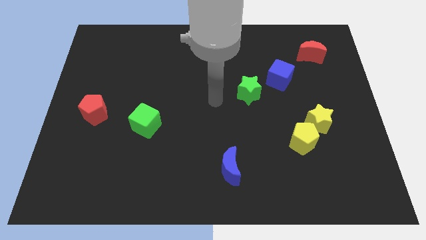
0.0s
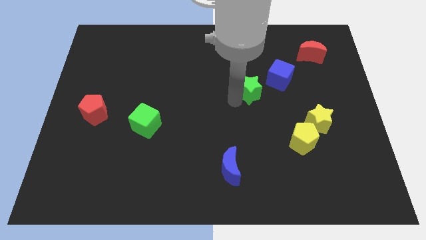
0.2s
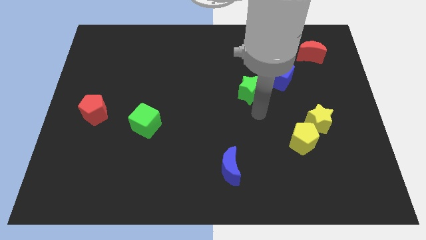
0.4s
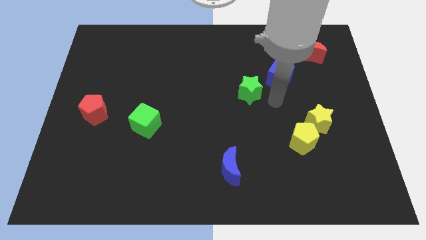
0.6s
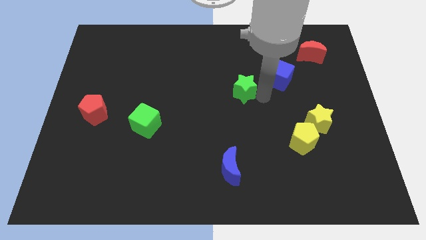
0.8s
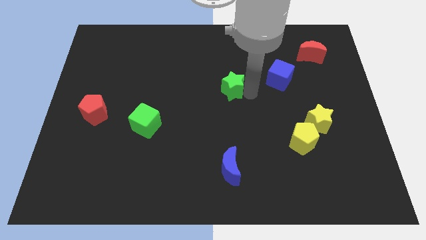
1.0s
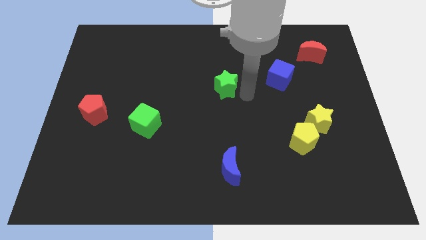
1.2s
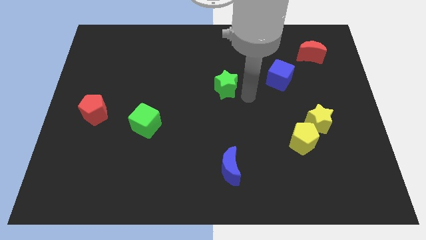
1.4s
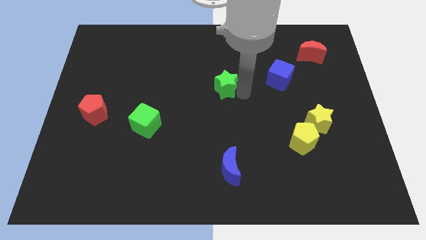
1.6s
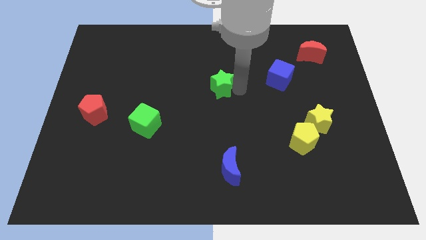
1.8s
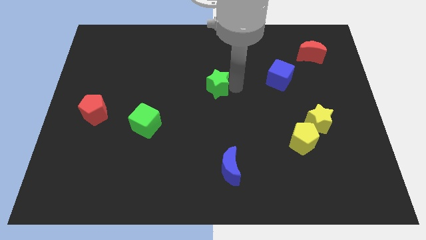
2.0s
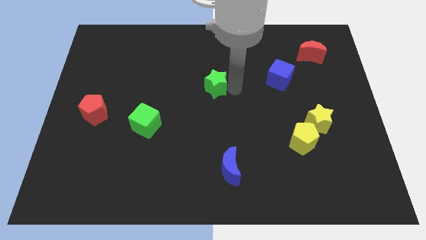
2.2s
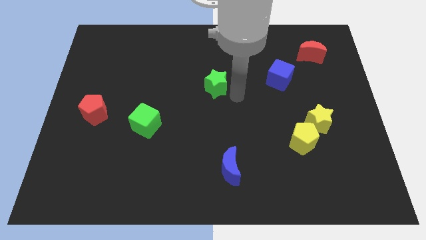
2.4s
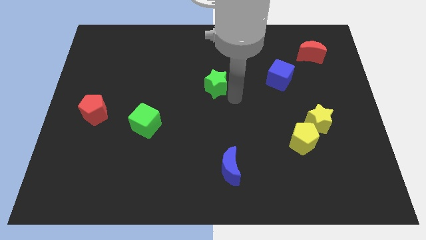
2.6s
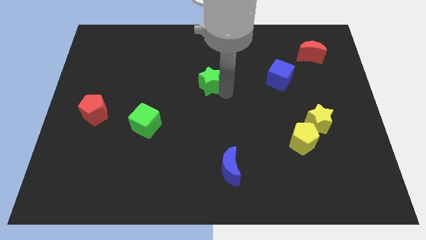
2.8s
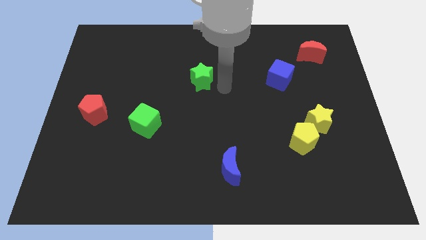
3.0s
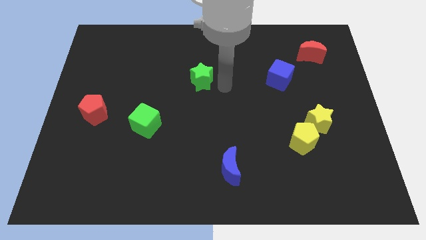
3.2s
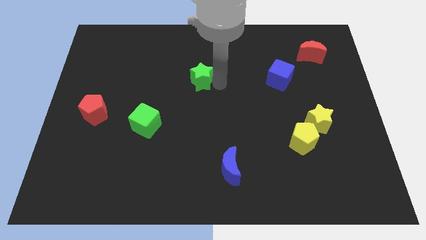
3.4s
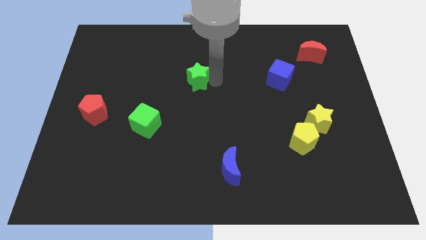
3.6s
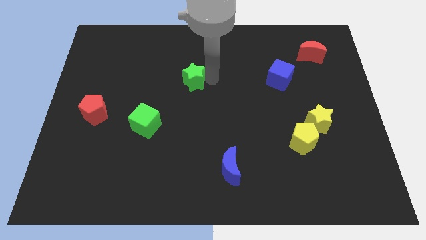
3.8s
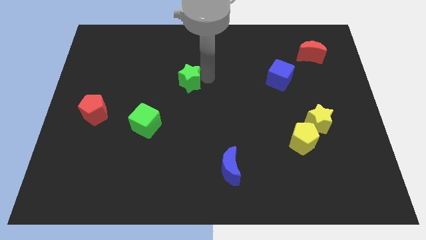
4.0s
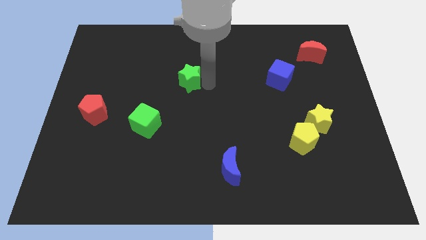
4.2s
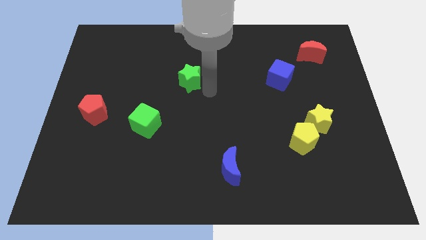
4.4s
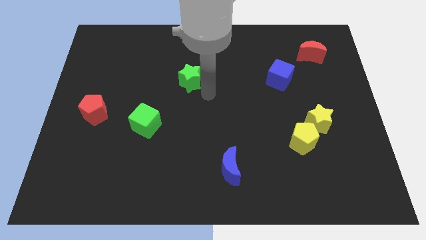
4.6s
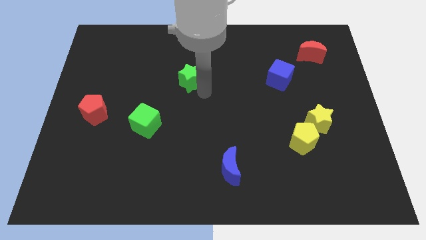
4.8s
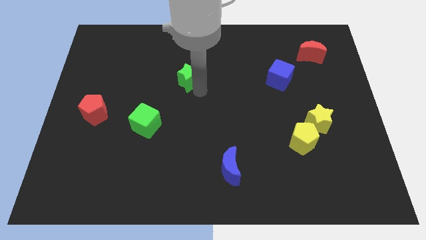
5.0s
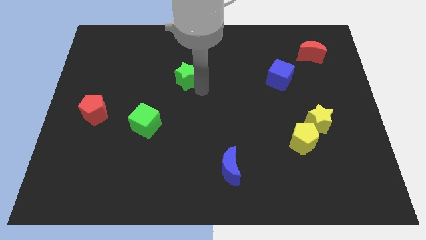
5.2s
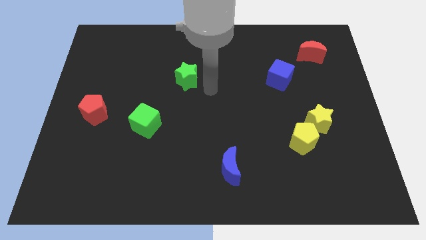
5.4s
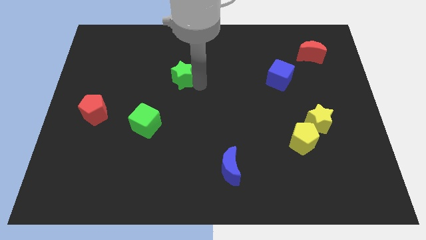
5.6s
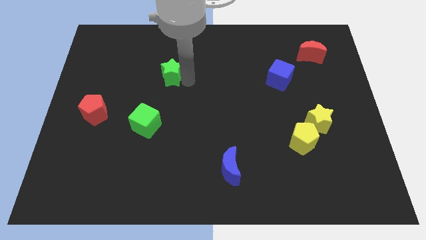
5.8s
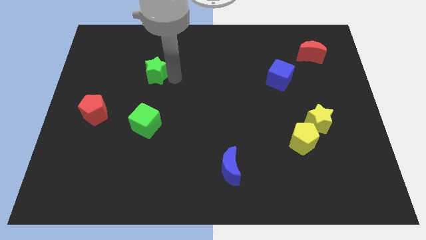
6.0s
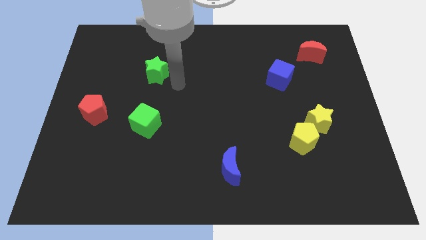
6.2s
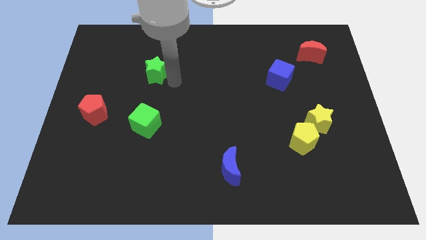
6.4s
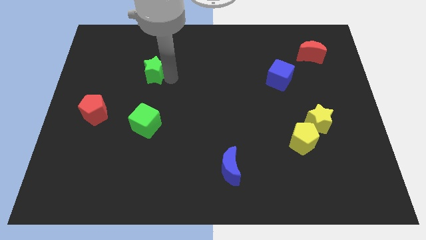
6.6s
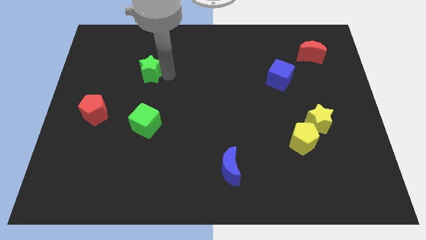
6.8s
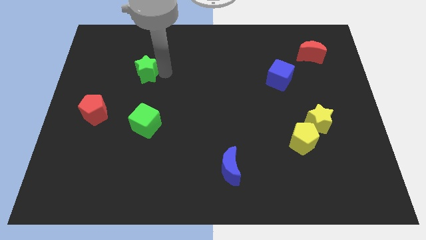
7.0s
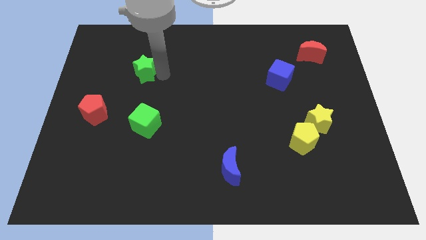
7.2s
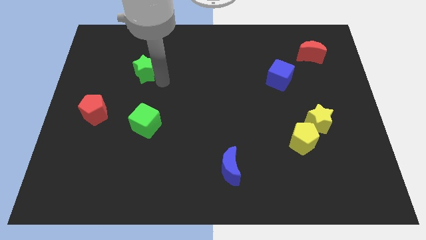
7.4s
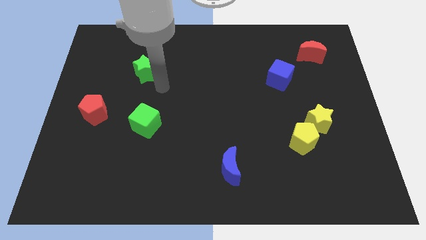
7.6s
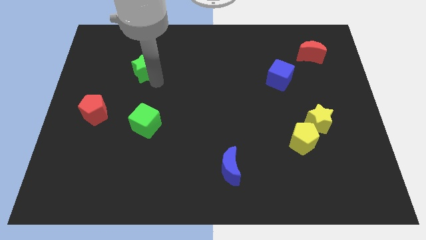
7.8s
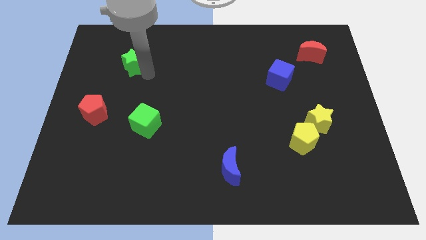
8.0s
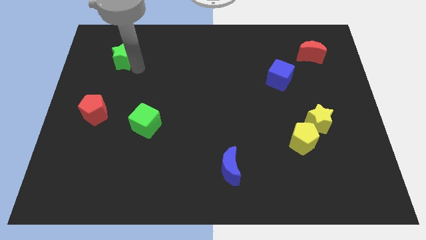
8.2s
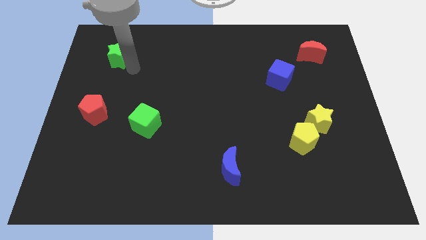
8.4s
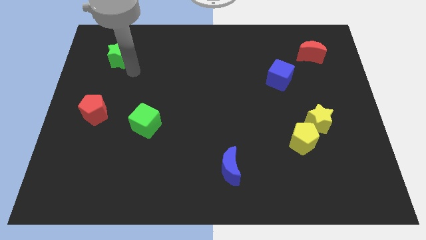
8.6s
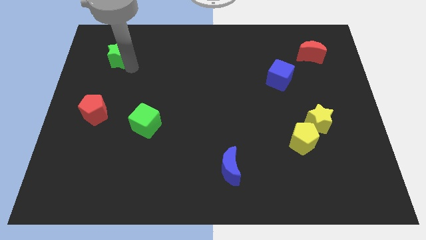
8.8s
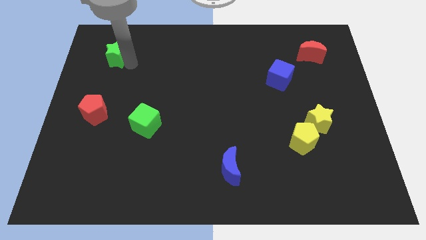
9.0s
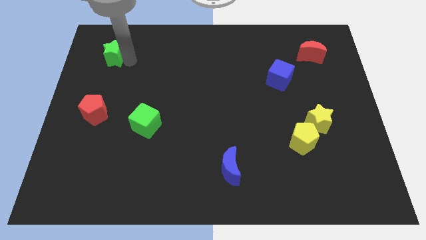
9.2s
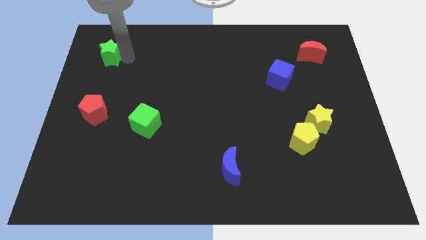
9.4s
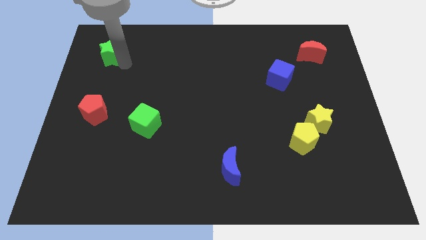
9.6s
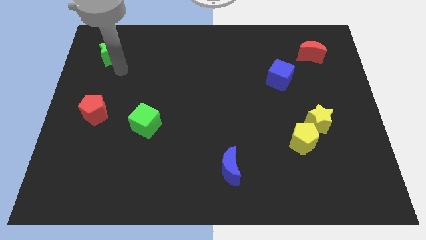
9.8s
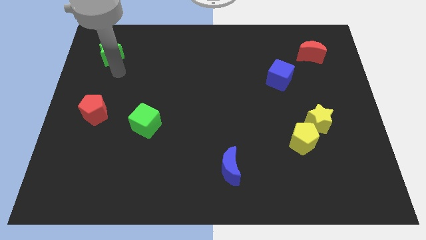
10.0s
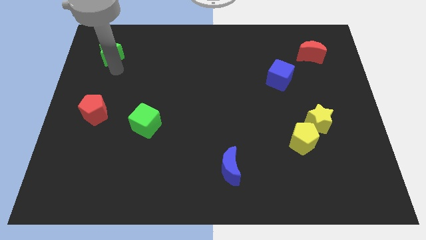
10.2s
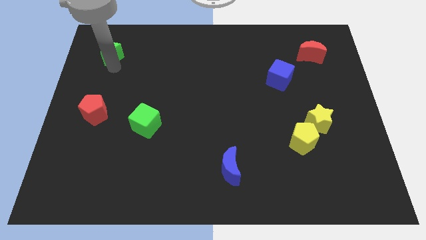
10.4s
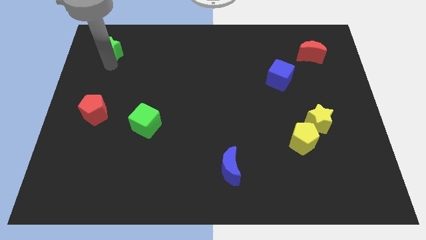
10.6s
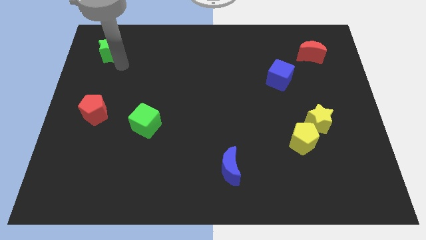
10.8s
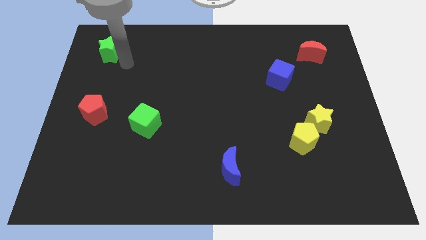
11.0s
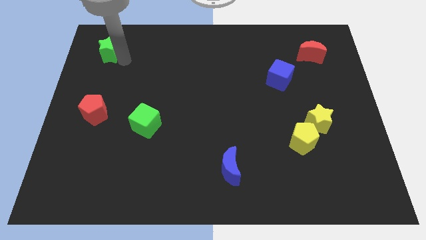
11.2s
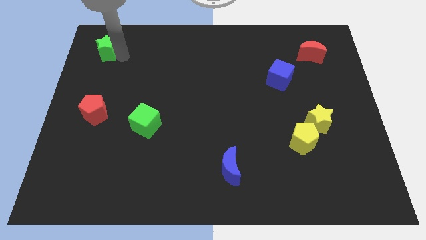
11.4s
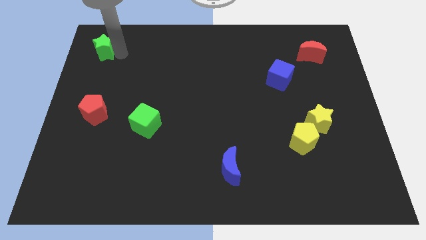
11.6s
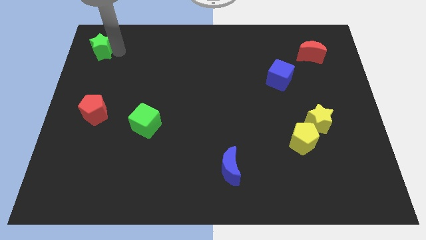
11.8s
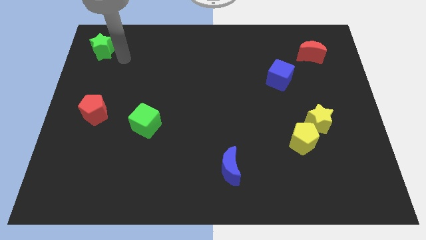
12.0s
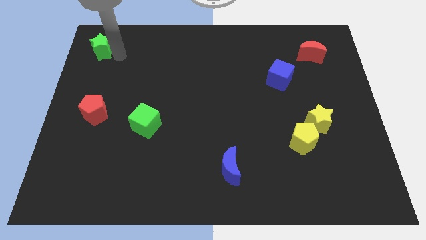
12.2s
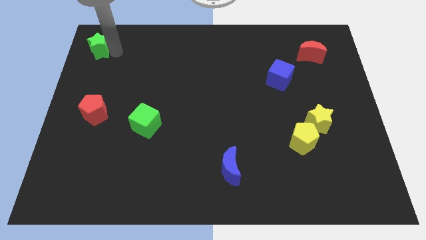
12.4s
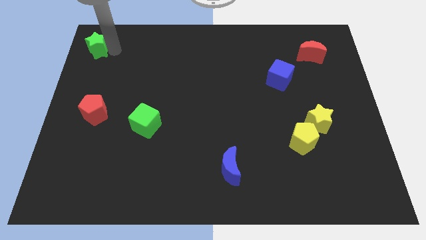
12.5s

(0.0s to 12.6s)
put the green star to the upper left corner

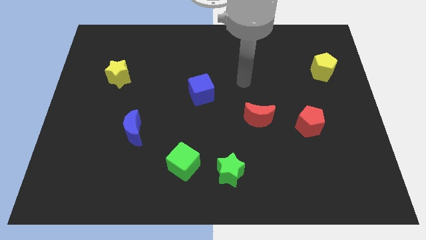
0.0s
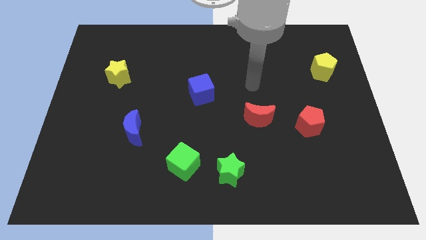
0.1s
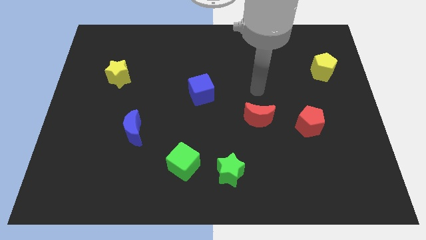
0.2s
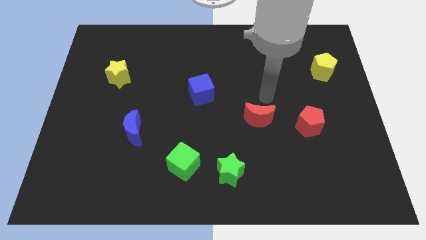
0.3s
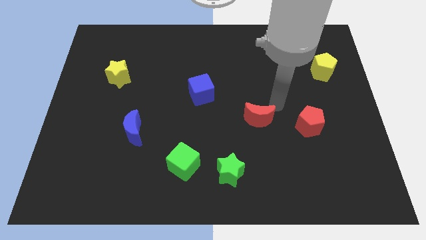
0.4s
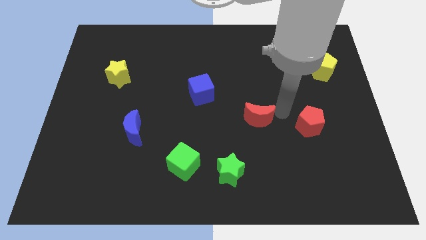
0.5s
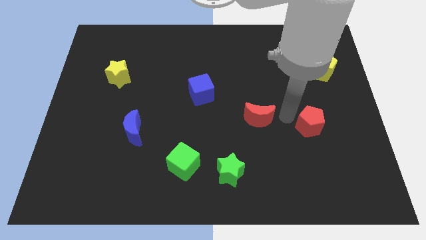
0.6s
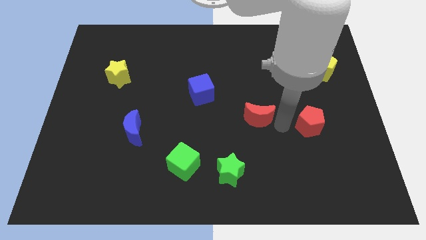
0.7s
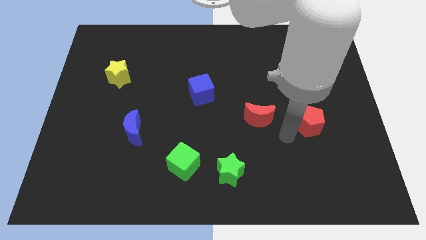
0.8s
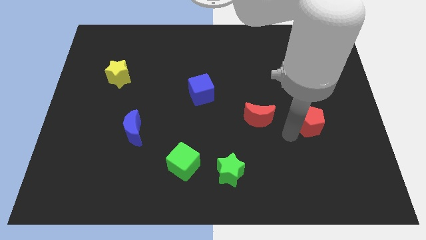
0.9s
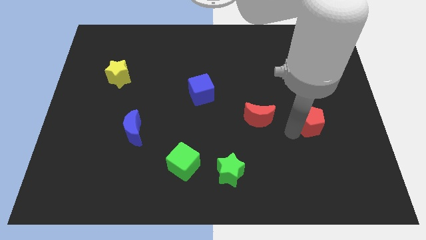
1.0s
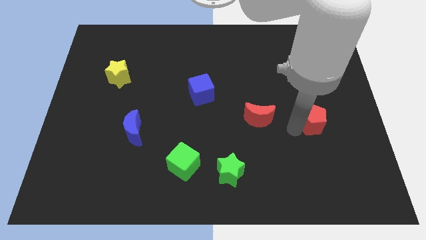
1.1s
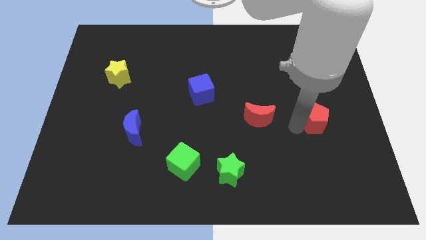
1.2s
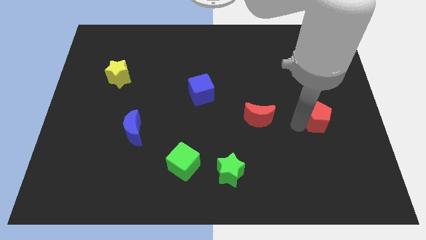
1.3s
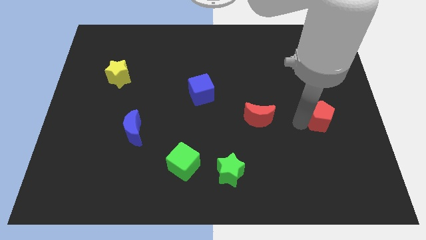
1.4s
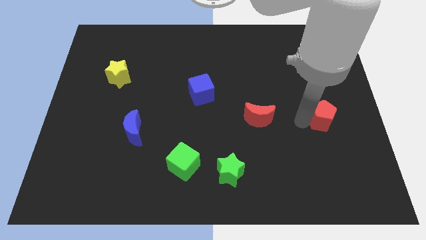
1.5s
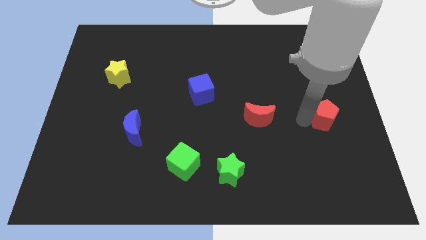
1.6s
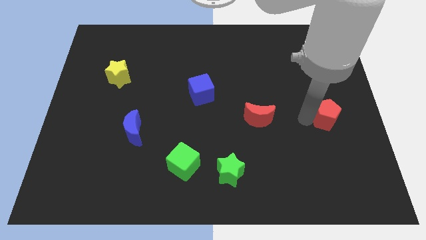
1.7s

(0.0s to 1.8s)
push the red pentagon to the right side of the board
